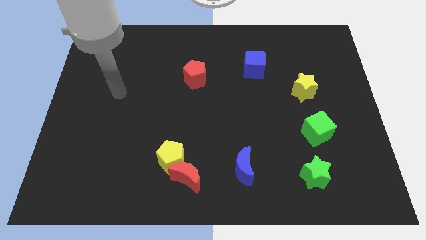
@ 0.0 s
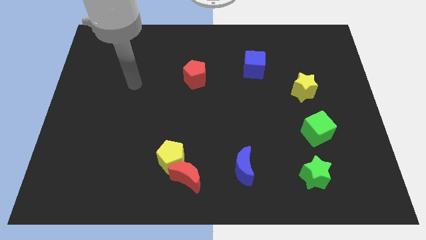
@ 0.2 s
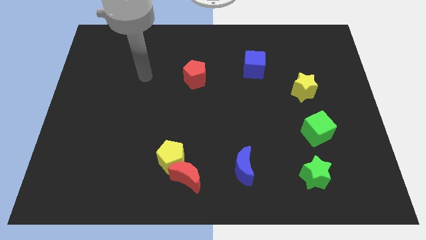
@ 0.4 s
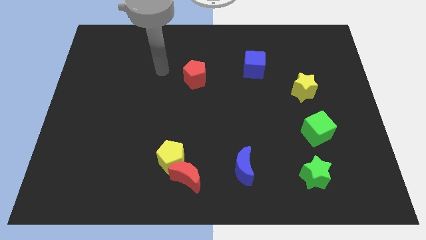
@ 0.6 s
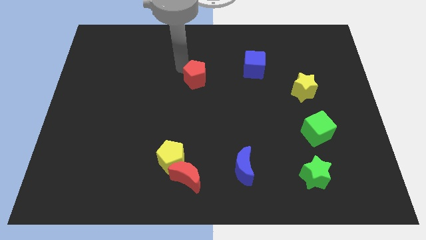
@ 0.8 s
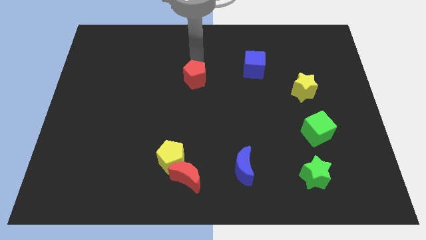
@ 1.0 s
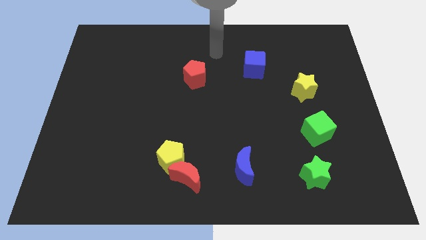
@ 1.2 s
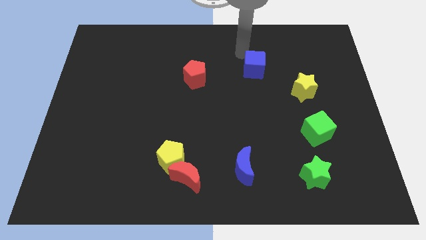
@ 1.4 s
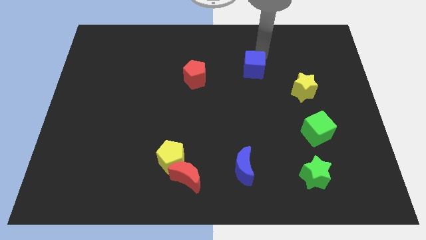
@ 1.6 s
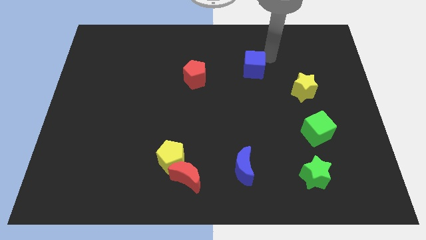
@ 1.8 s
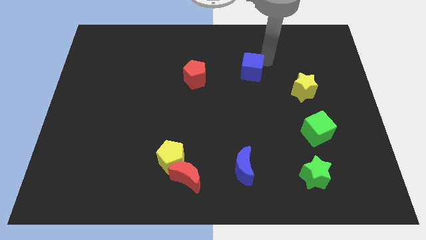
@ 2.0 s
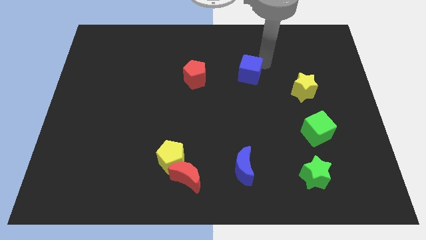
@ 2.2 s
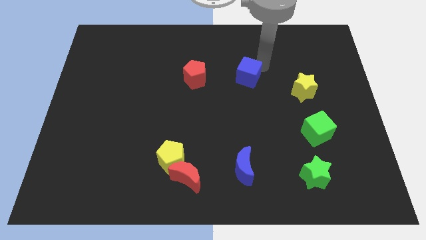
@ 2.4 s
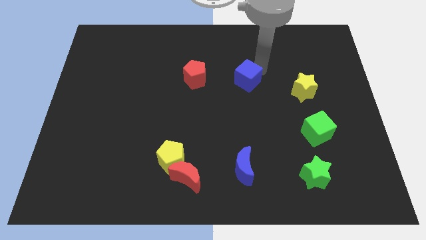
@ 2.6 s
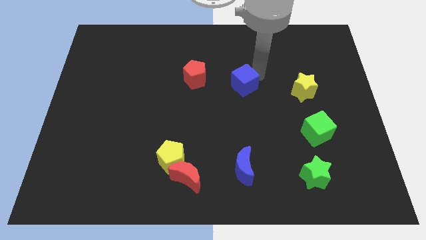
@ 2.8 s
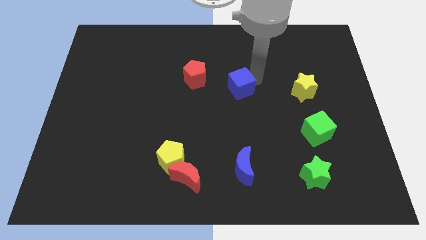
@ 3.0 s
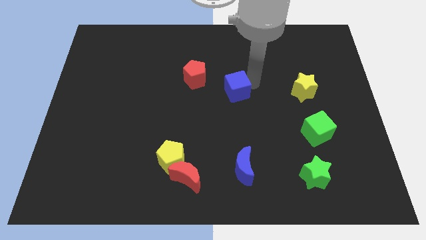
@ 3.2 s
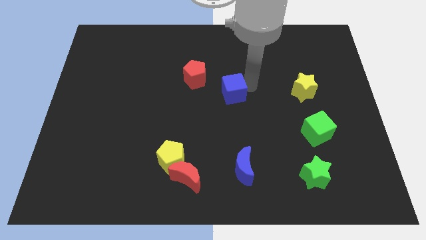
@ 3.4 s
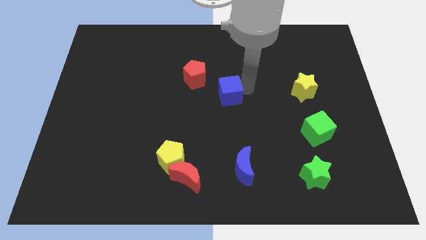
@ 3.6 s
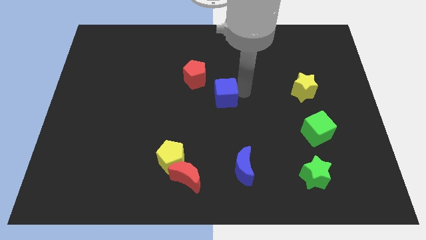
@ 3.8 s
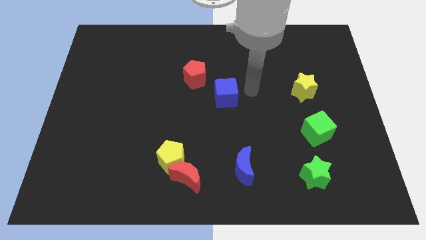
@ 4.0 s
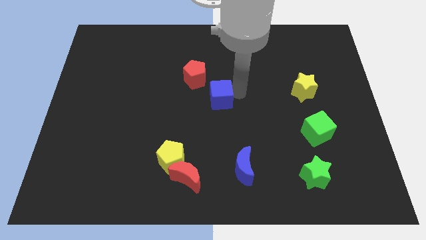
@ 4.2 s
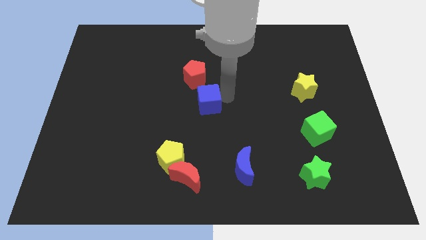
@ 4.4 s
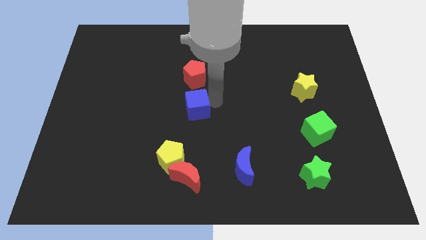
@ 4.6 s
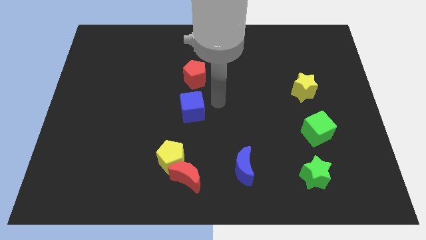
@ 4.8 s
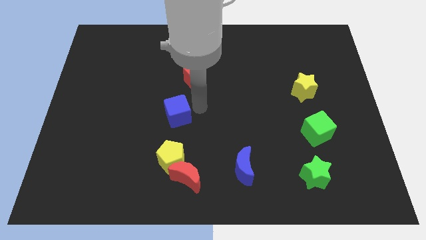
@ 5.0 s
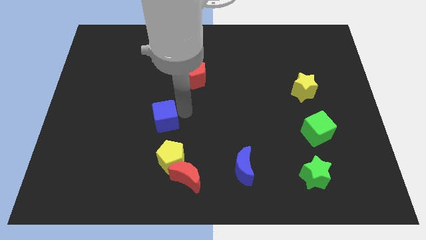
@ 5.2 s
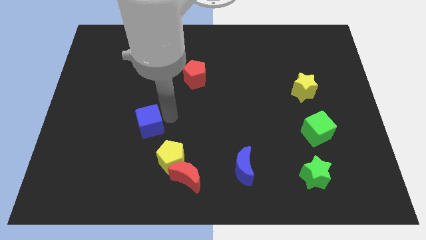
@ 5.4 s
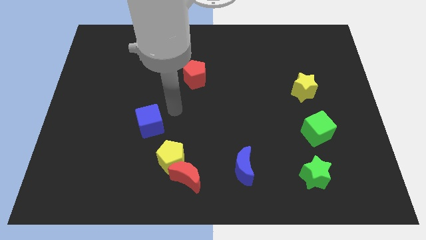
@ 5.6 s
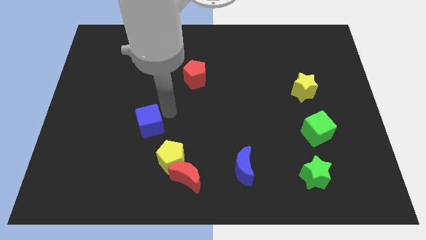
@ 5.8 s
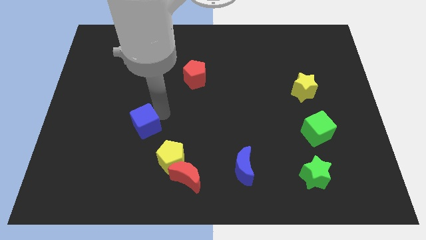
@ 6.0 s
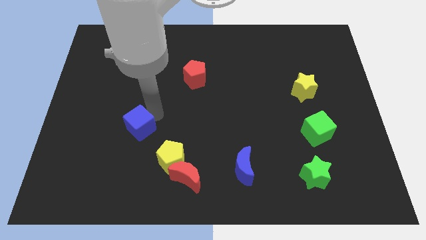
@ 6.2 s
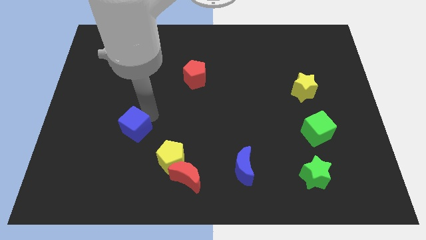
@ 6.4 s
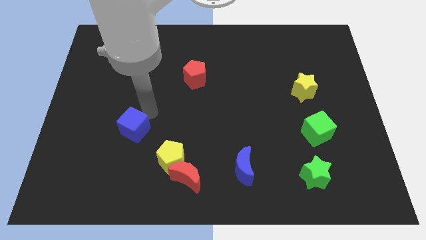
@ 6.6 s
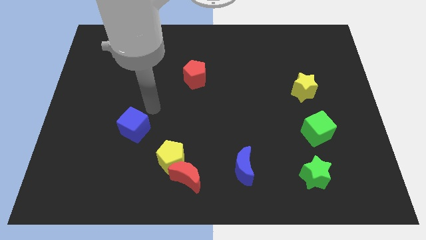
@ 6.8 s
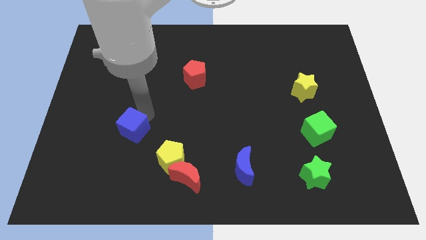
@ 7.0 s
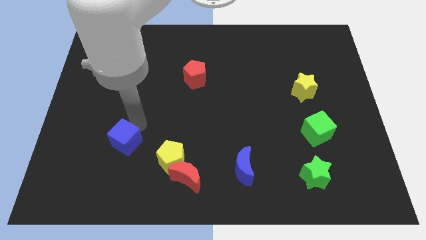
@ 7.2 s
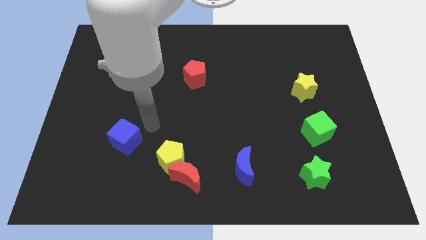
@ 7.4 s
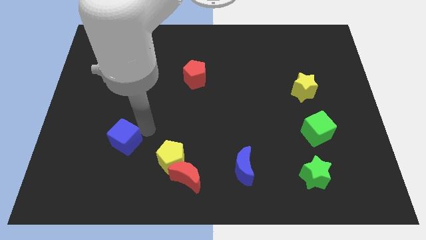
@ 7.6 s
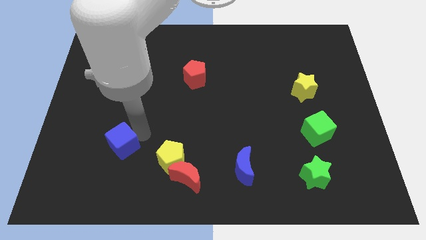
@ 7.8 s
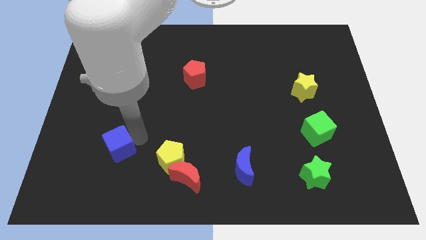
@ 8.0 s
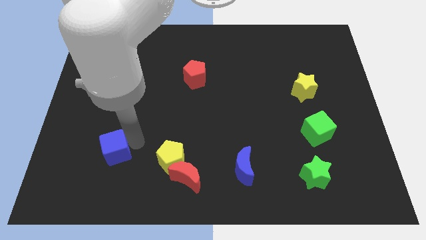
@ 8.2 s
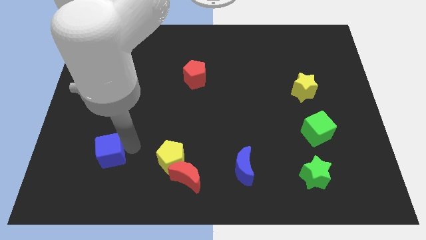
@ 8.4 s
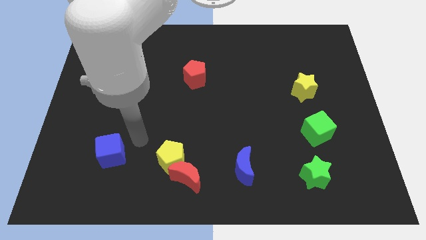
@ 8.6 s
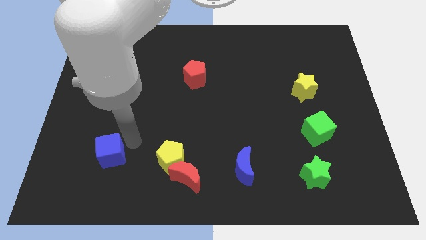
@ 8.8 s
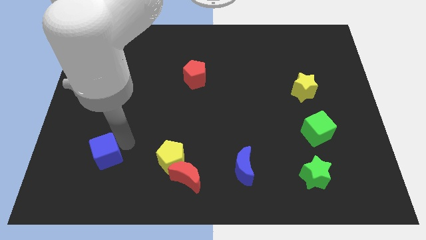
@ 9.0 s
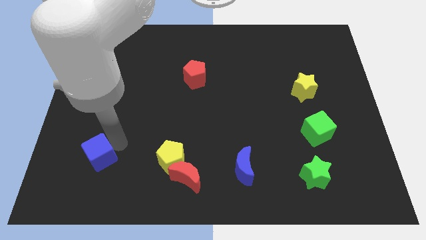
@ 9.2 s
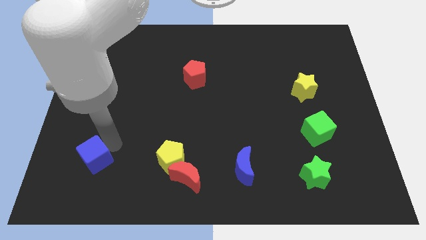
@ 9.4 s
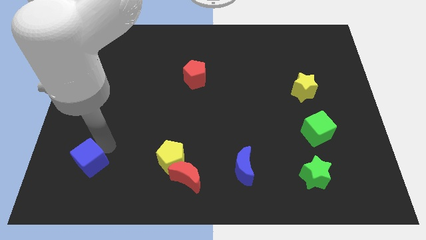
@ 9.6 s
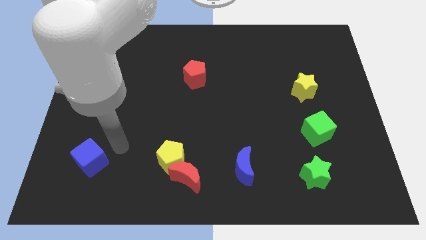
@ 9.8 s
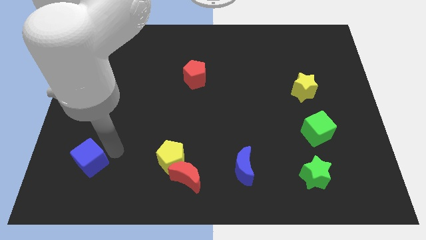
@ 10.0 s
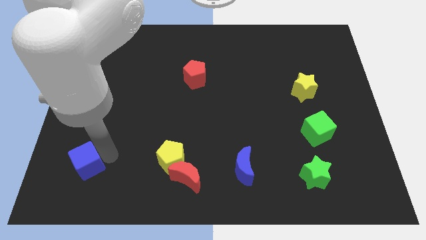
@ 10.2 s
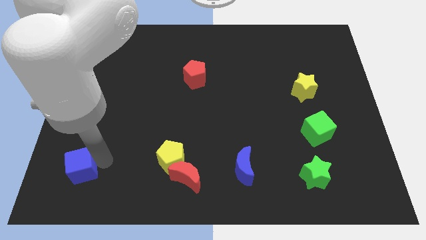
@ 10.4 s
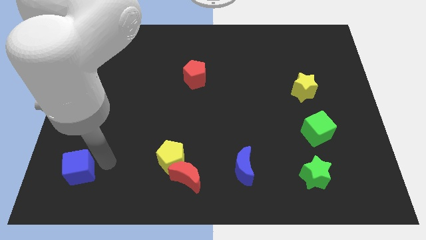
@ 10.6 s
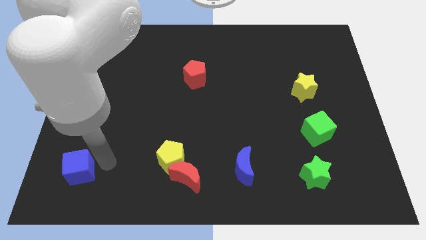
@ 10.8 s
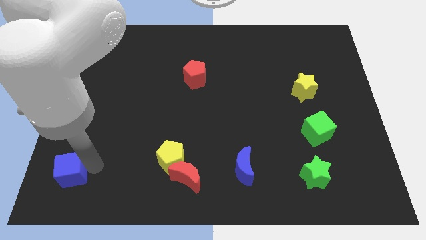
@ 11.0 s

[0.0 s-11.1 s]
push the blue cube to the bottom left of the board

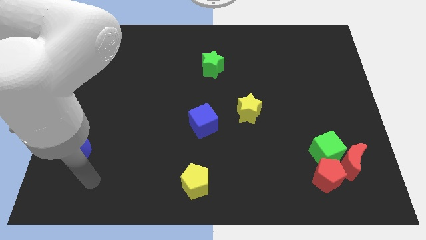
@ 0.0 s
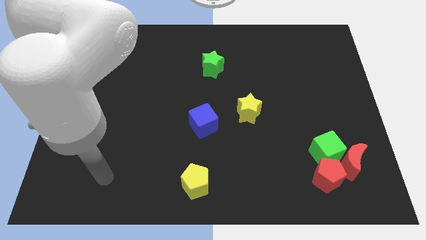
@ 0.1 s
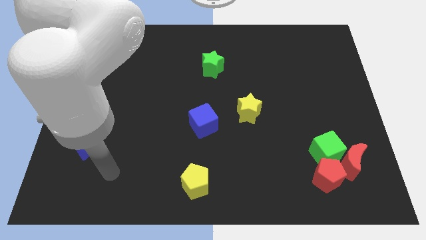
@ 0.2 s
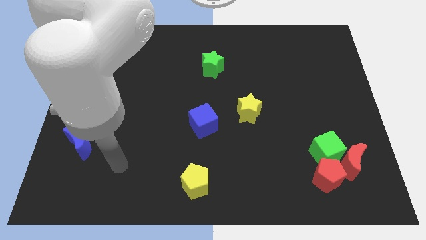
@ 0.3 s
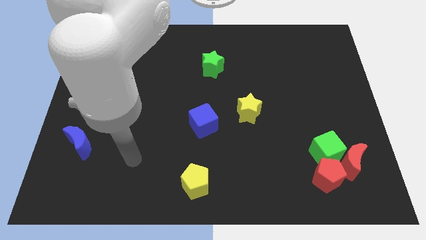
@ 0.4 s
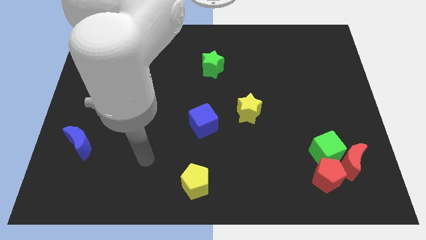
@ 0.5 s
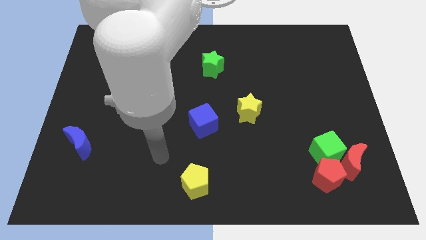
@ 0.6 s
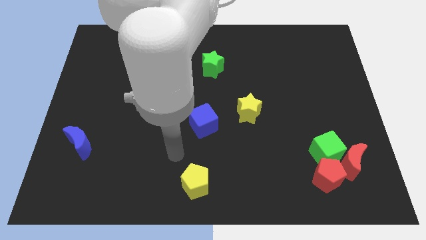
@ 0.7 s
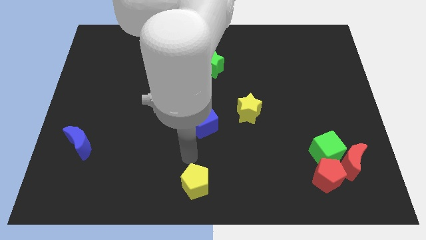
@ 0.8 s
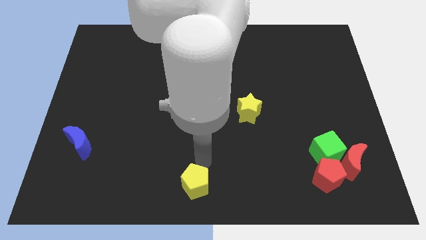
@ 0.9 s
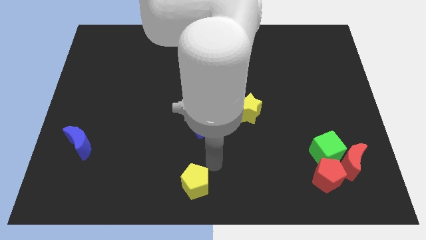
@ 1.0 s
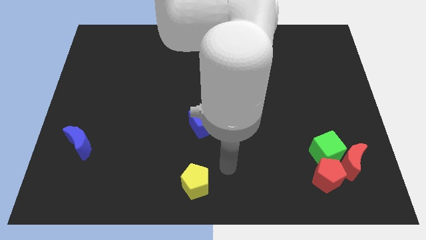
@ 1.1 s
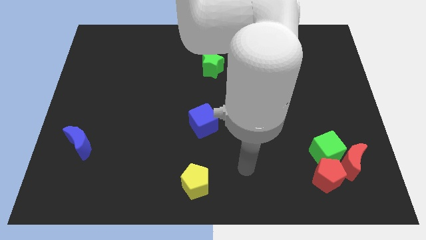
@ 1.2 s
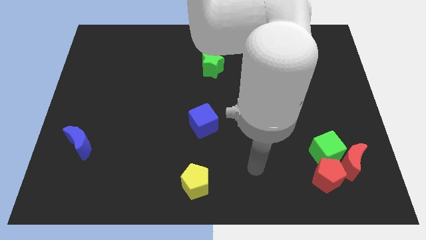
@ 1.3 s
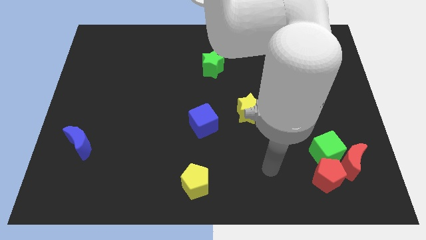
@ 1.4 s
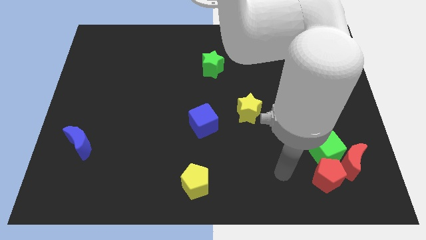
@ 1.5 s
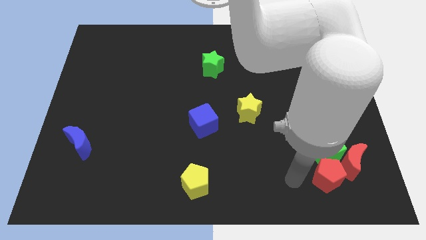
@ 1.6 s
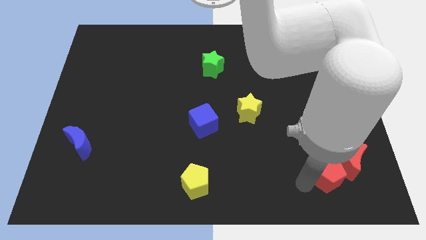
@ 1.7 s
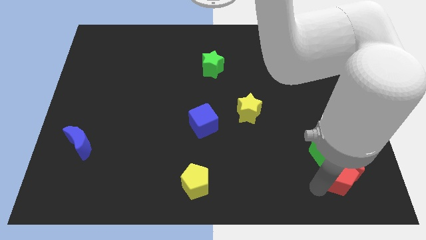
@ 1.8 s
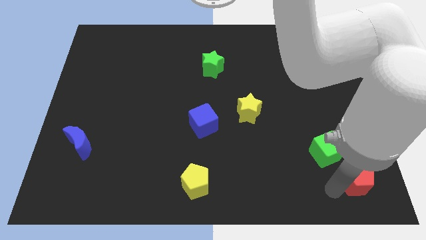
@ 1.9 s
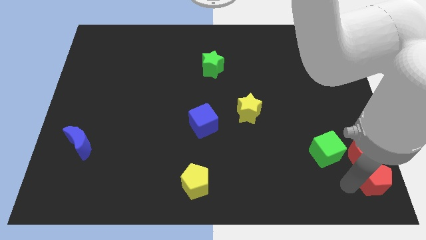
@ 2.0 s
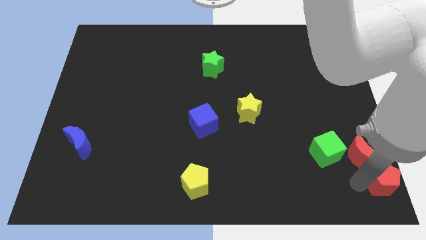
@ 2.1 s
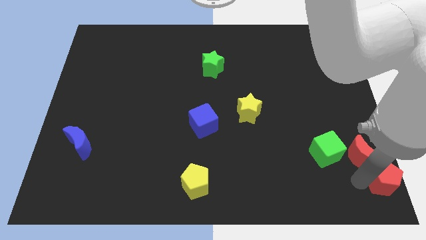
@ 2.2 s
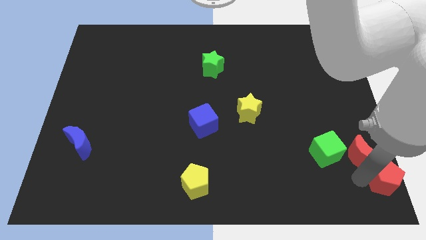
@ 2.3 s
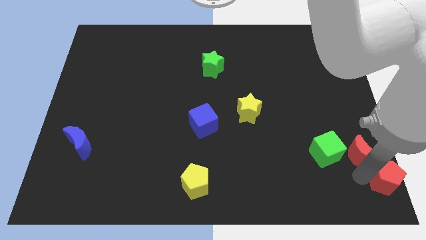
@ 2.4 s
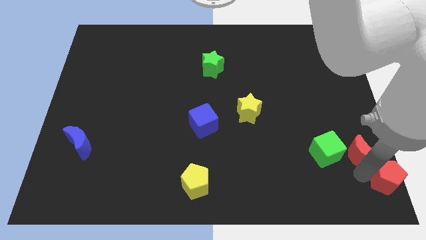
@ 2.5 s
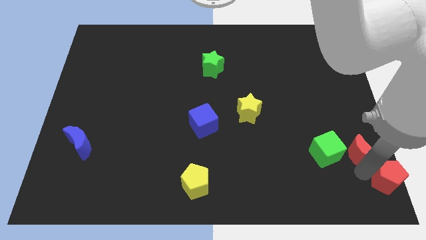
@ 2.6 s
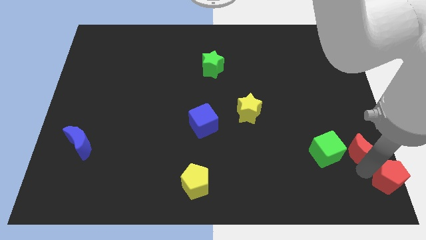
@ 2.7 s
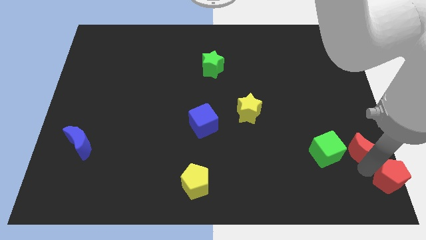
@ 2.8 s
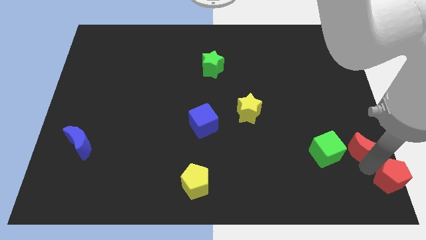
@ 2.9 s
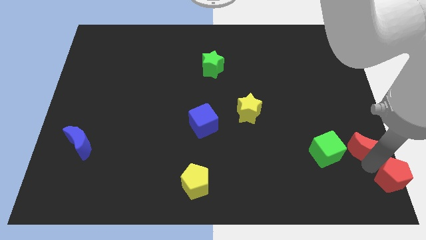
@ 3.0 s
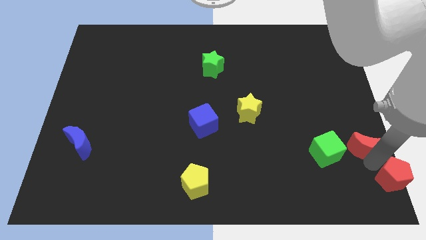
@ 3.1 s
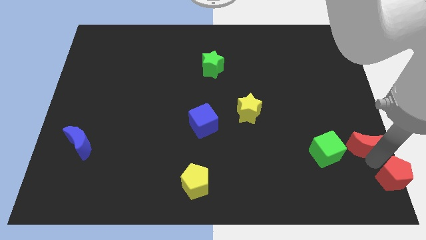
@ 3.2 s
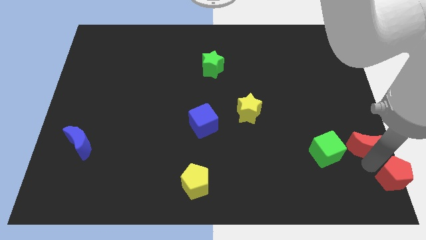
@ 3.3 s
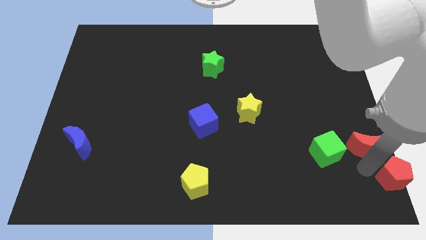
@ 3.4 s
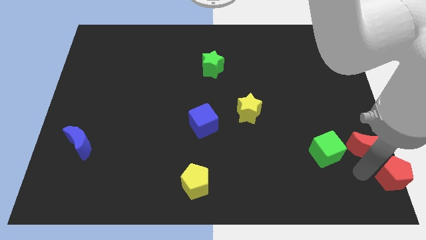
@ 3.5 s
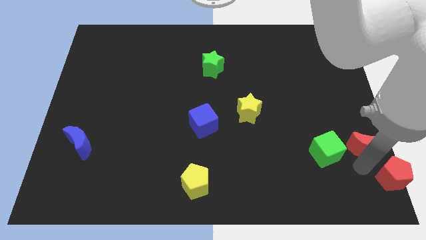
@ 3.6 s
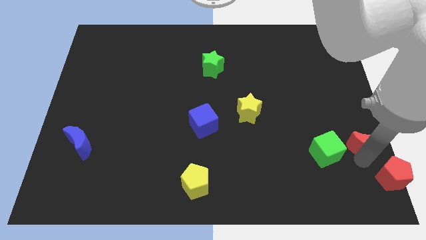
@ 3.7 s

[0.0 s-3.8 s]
move the red moon to the center right
